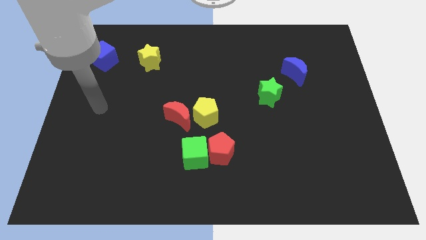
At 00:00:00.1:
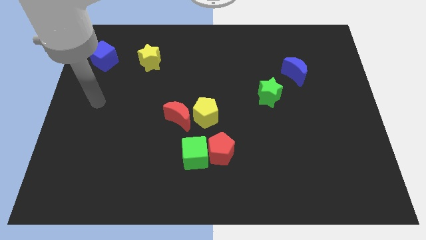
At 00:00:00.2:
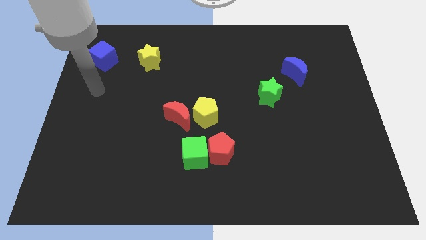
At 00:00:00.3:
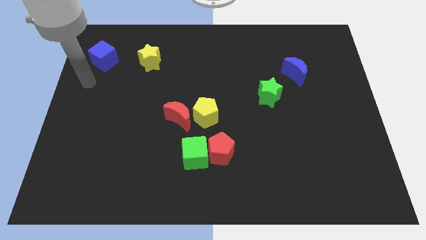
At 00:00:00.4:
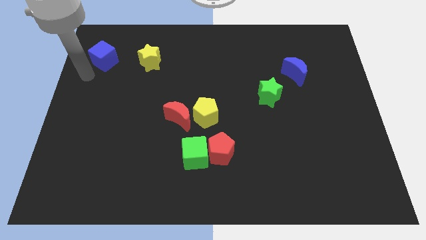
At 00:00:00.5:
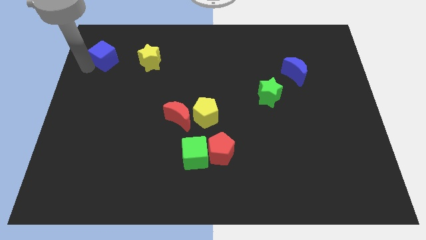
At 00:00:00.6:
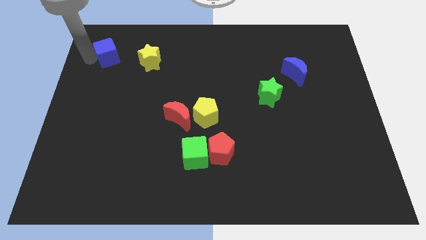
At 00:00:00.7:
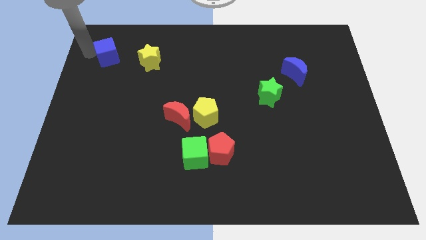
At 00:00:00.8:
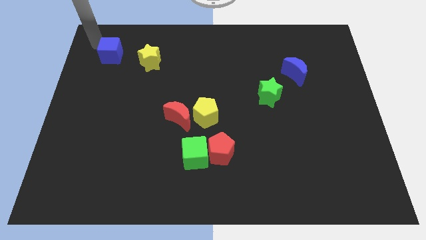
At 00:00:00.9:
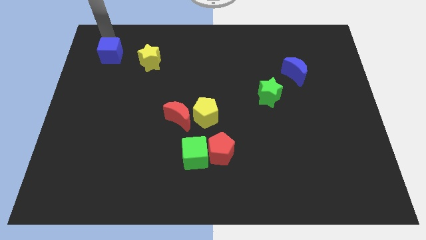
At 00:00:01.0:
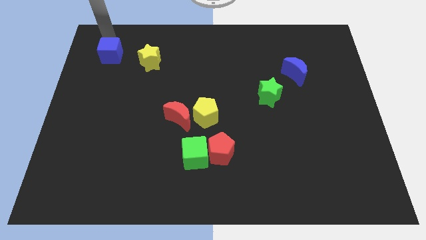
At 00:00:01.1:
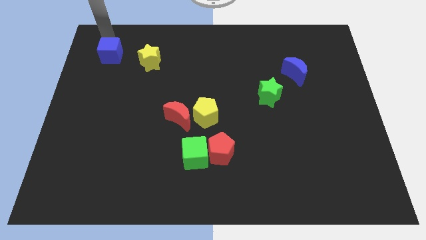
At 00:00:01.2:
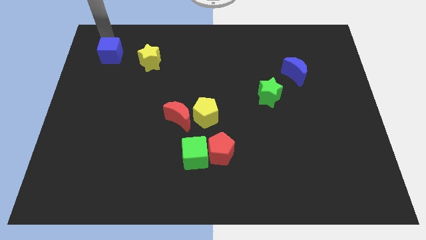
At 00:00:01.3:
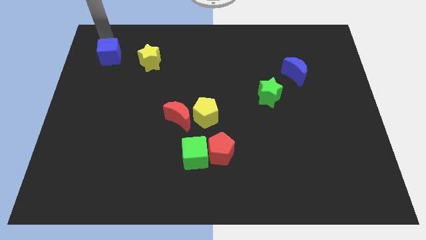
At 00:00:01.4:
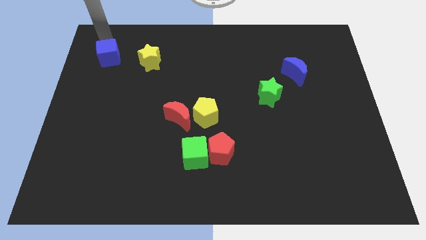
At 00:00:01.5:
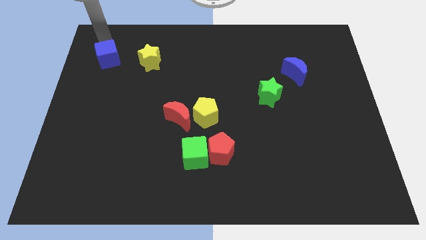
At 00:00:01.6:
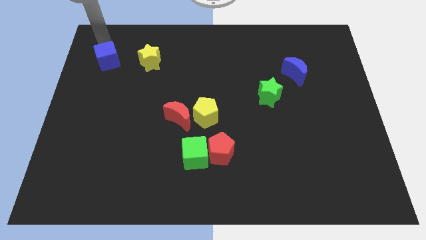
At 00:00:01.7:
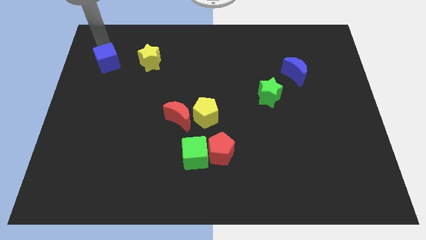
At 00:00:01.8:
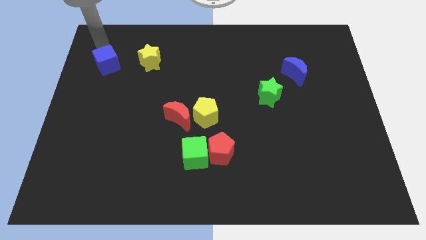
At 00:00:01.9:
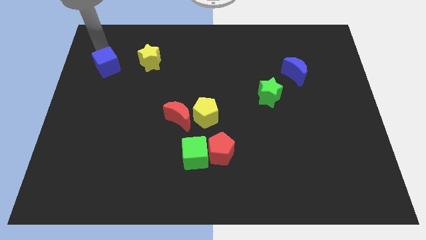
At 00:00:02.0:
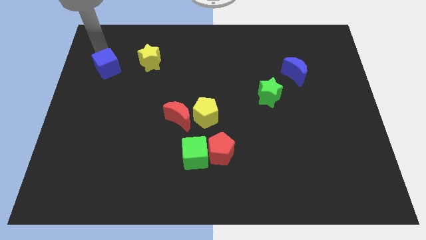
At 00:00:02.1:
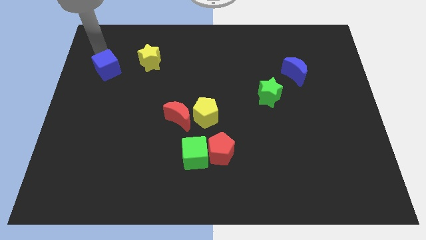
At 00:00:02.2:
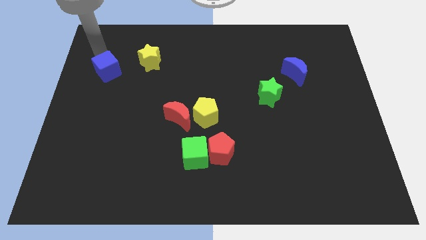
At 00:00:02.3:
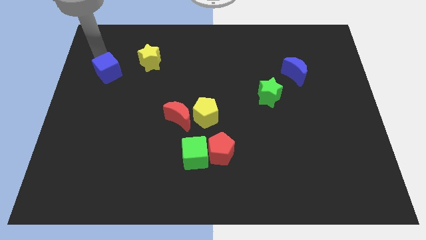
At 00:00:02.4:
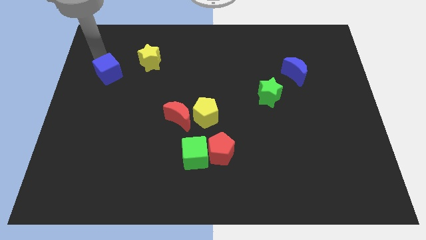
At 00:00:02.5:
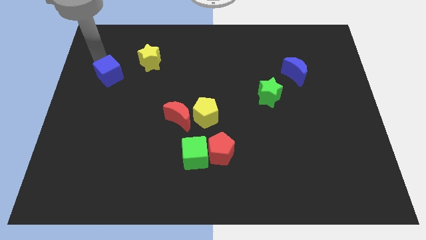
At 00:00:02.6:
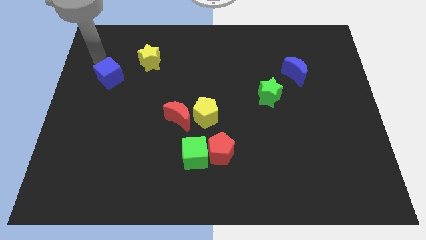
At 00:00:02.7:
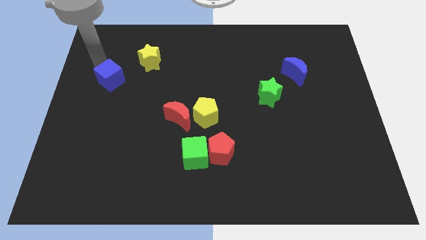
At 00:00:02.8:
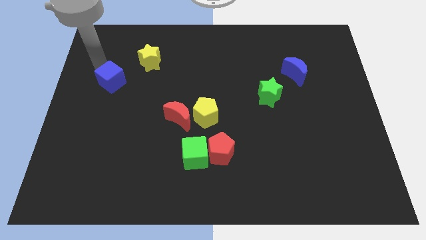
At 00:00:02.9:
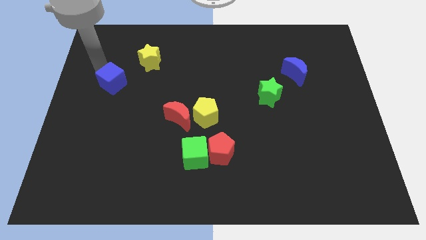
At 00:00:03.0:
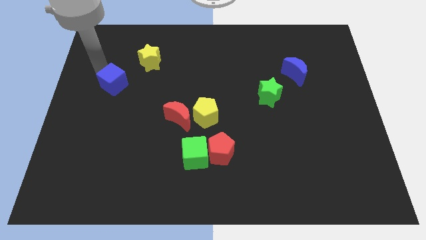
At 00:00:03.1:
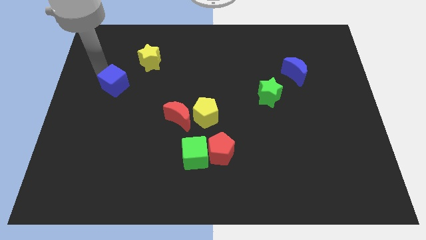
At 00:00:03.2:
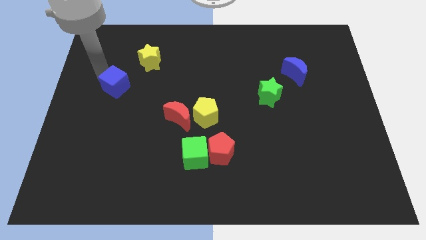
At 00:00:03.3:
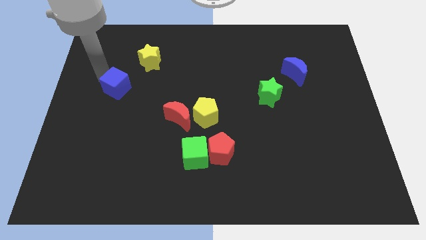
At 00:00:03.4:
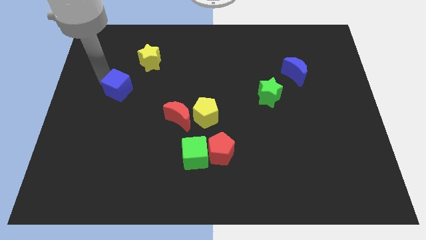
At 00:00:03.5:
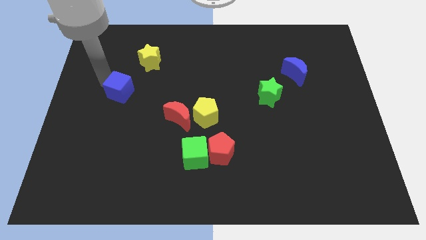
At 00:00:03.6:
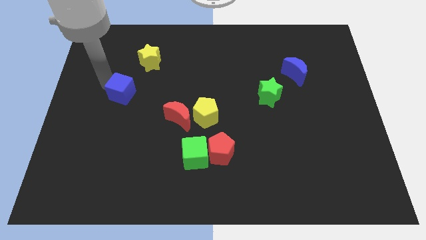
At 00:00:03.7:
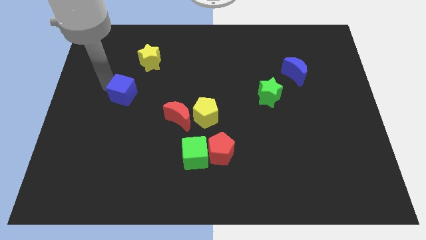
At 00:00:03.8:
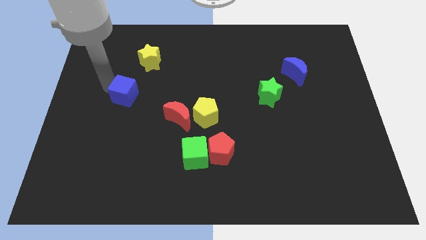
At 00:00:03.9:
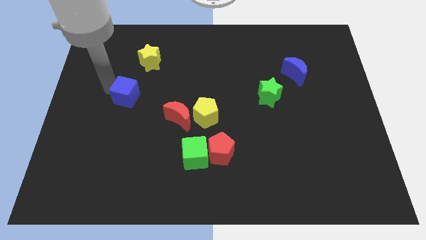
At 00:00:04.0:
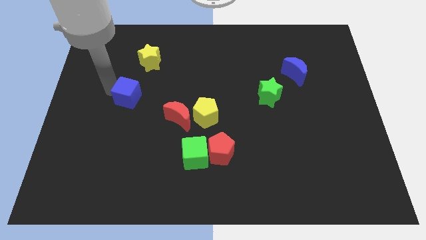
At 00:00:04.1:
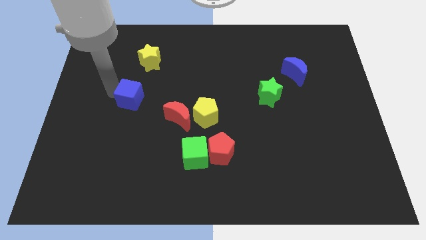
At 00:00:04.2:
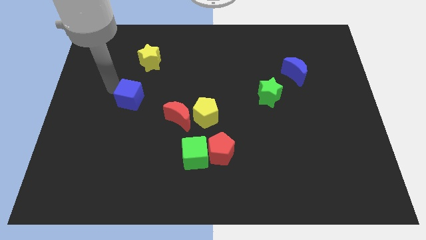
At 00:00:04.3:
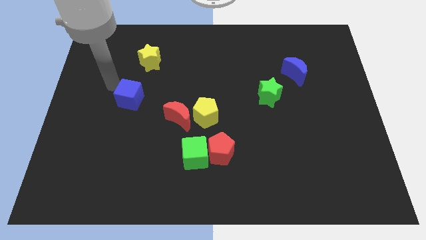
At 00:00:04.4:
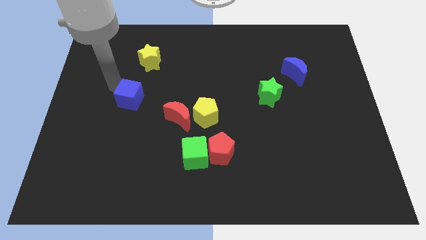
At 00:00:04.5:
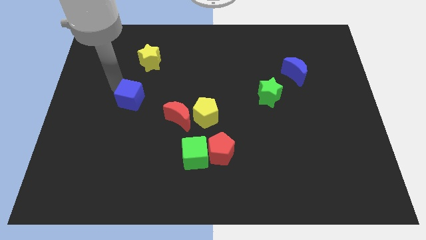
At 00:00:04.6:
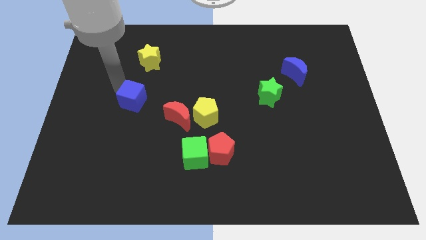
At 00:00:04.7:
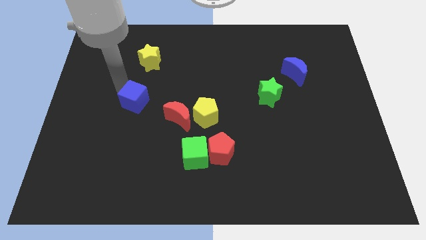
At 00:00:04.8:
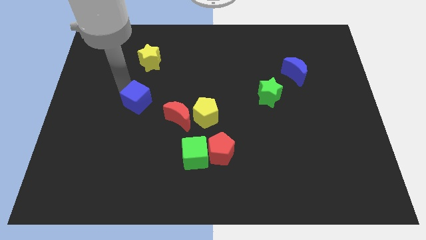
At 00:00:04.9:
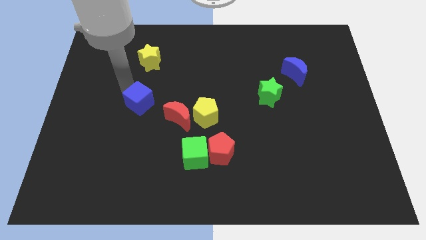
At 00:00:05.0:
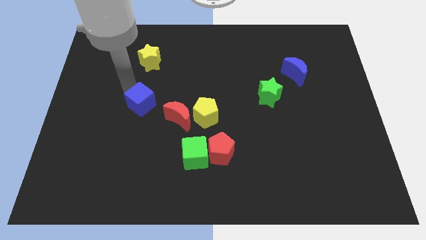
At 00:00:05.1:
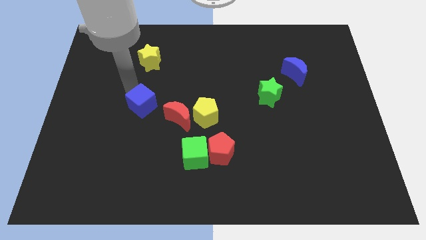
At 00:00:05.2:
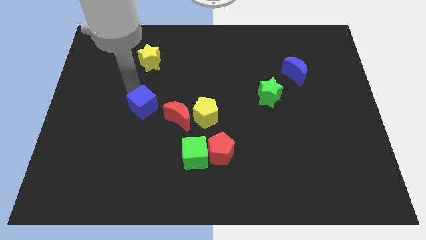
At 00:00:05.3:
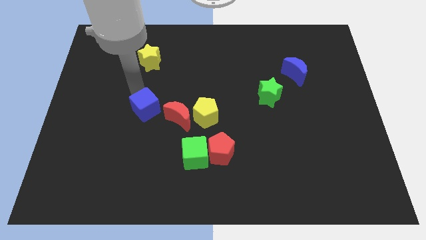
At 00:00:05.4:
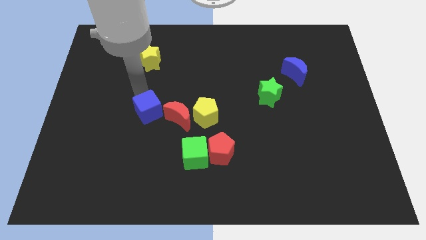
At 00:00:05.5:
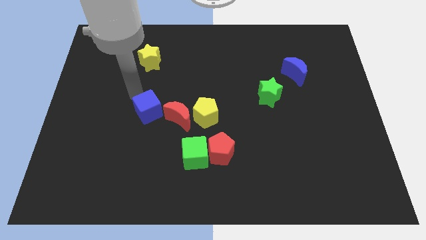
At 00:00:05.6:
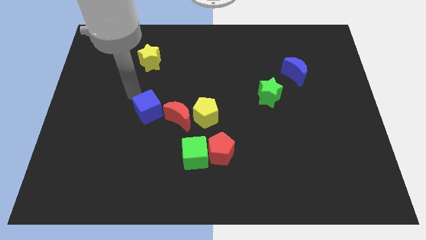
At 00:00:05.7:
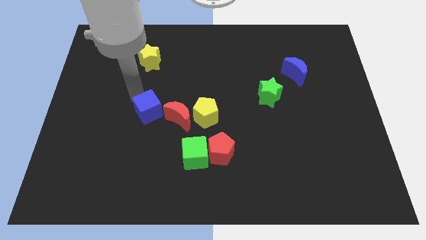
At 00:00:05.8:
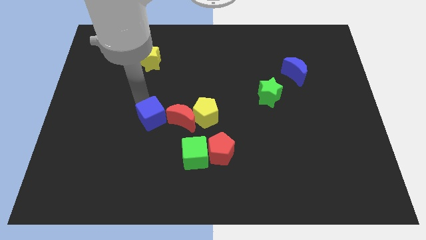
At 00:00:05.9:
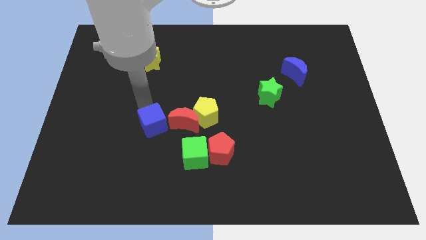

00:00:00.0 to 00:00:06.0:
move the blue cube diagonally up and to the left of the green cube
